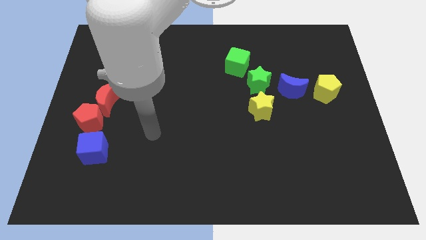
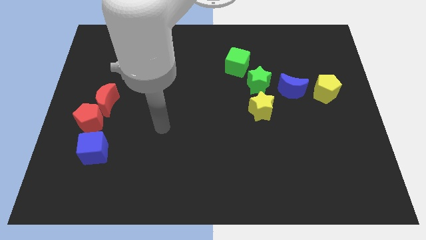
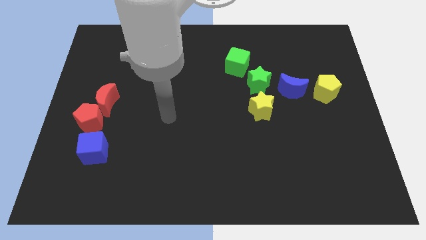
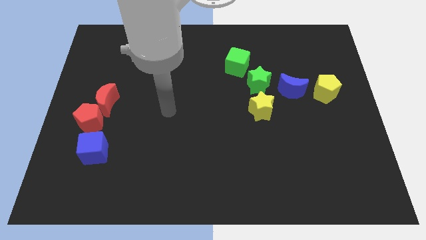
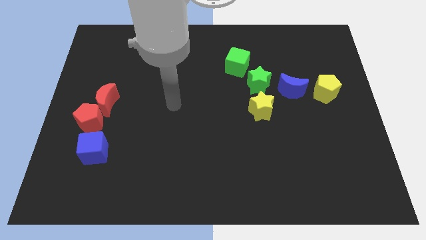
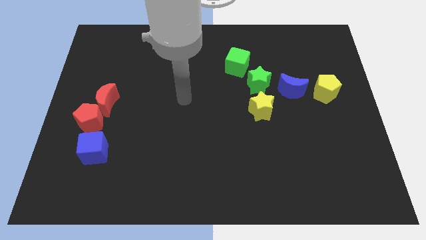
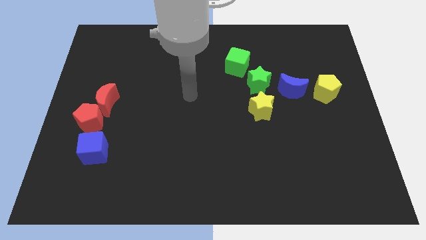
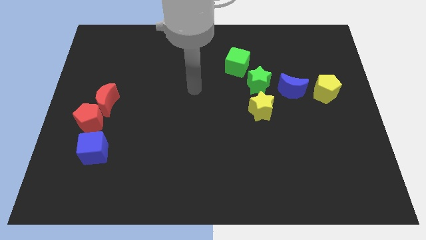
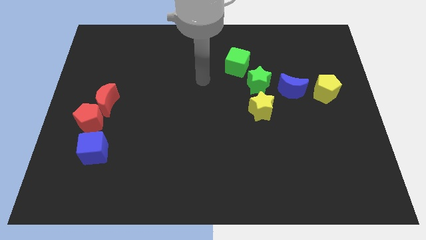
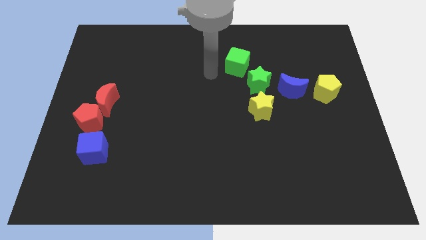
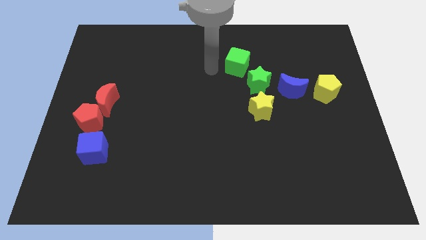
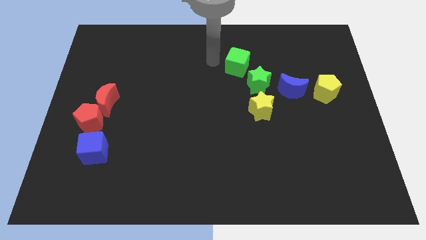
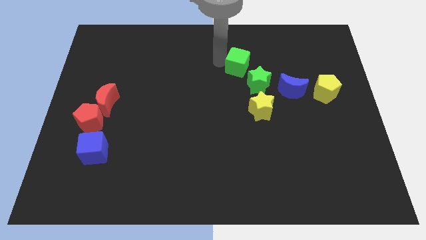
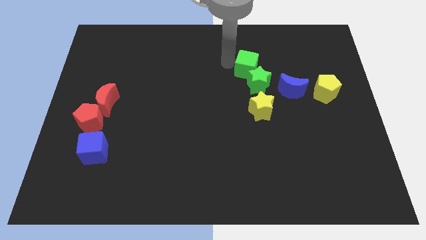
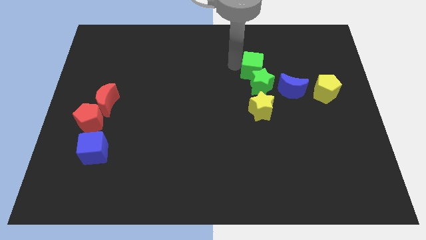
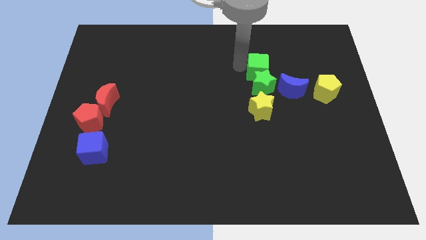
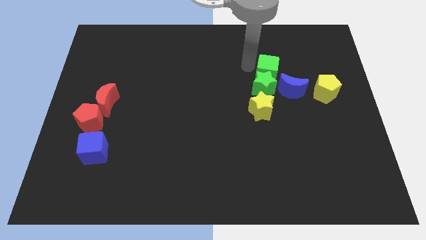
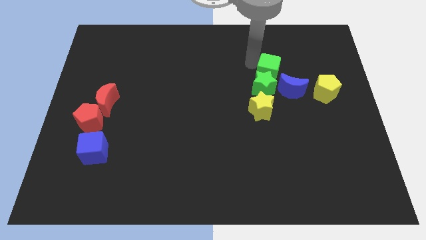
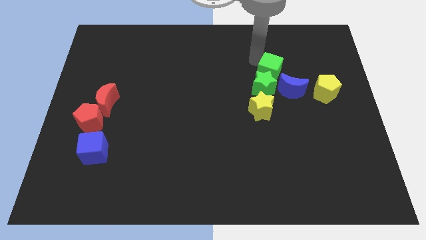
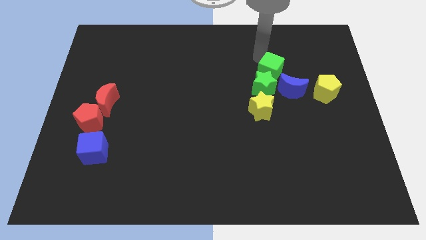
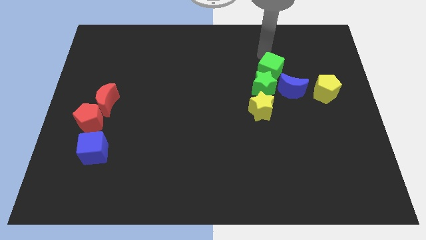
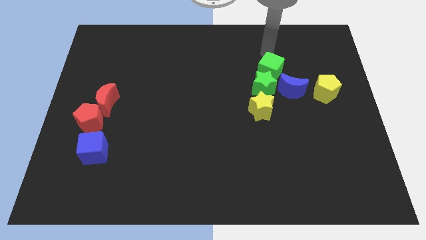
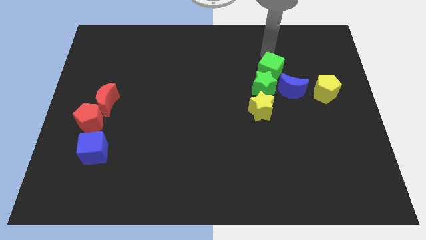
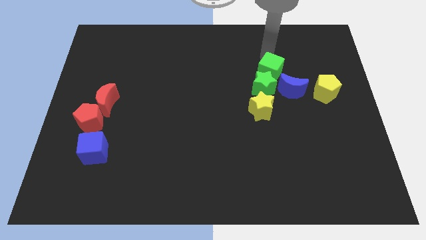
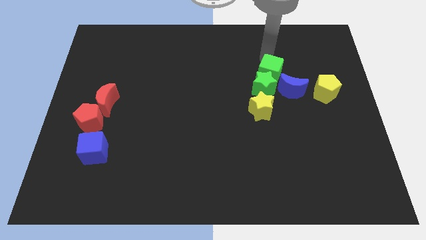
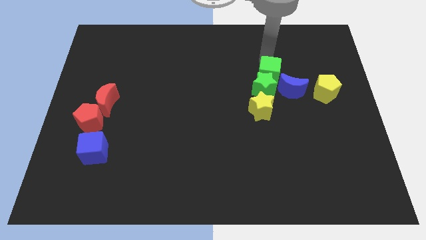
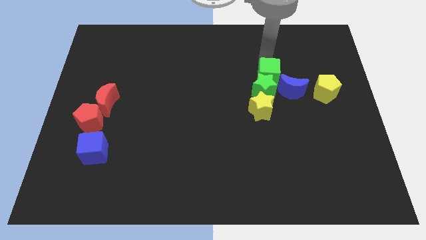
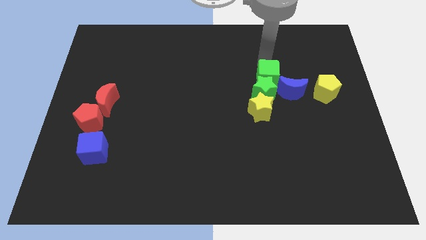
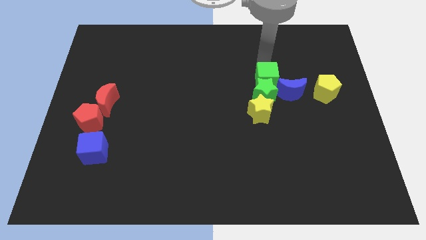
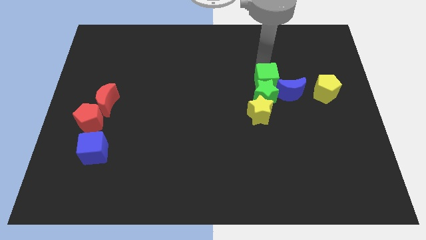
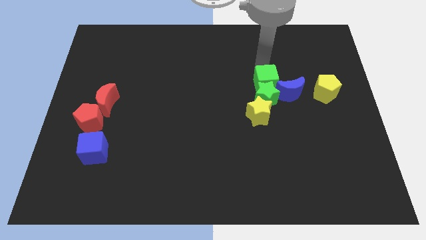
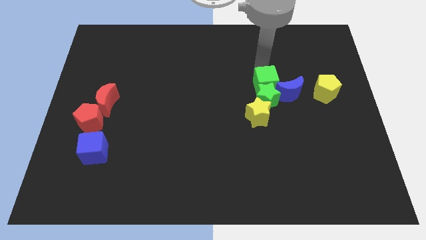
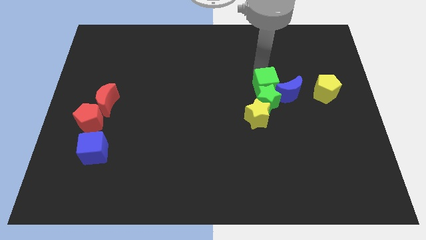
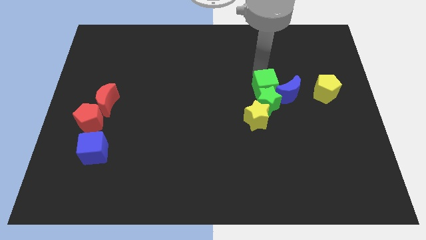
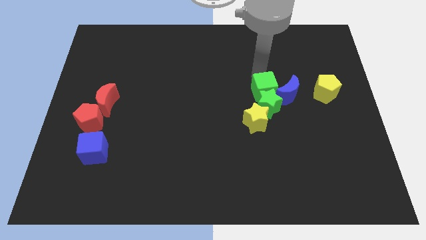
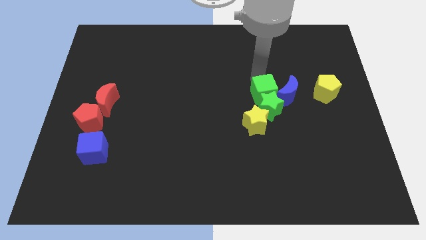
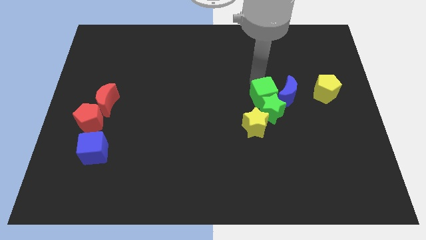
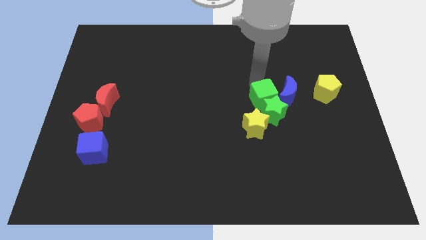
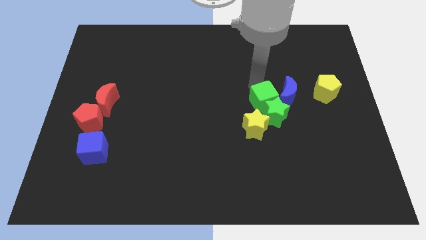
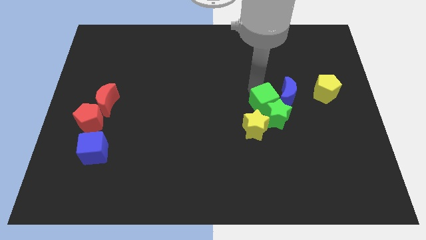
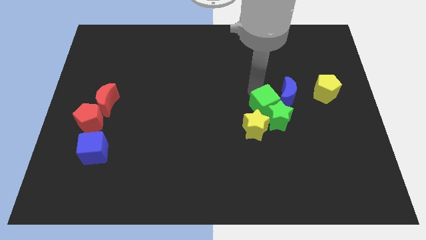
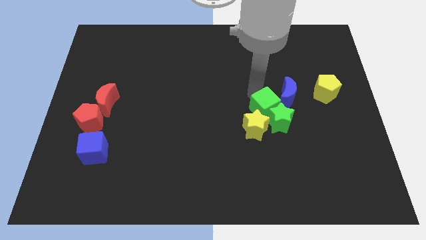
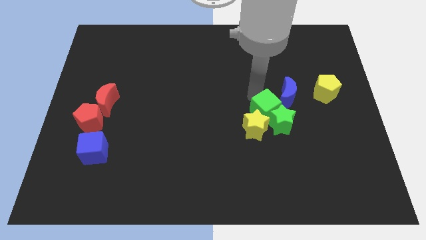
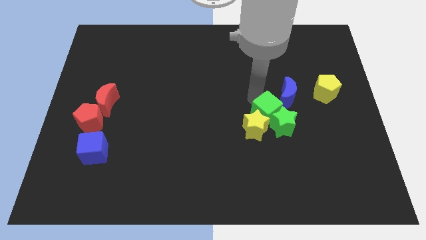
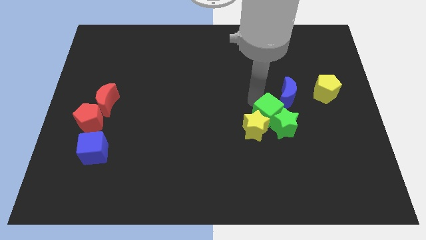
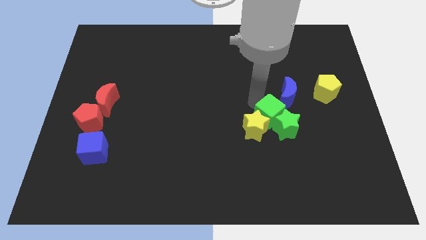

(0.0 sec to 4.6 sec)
slide the green cube to the bottom of the blue moon

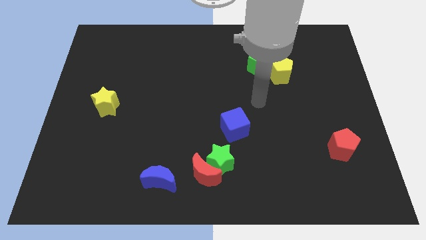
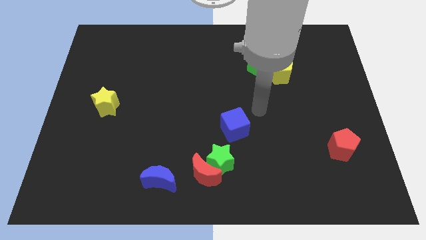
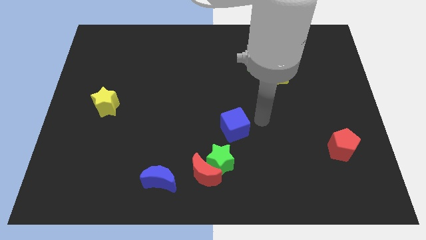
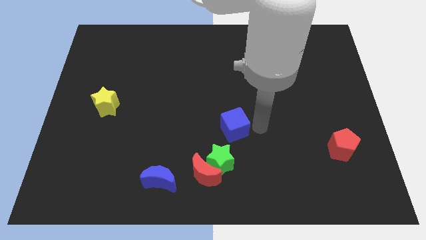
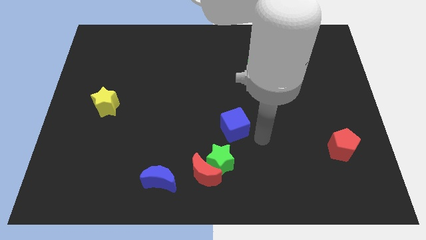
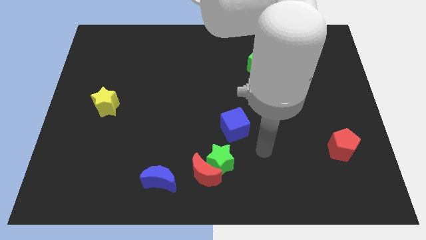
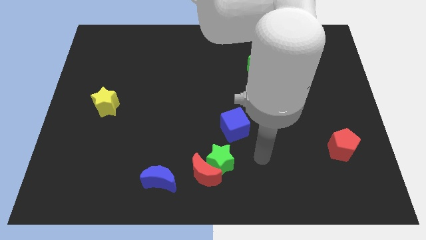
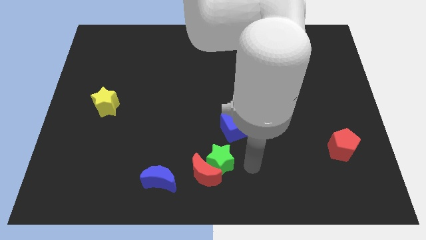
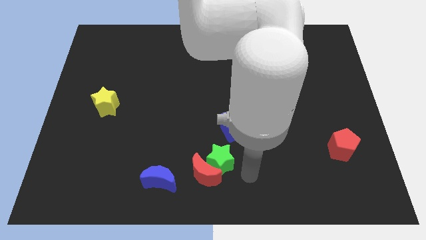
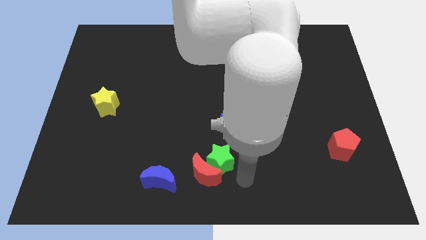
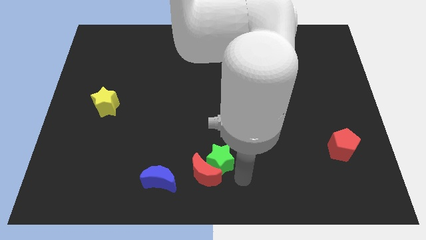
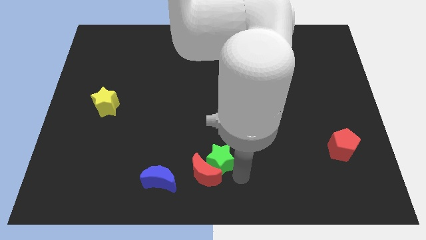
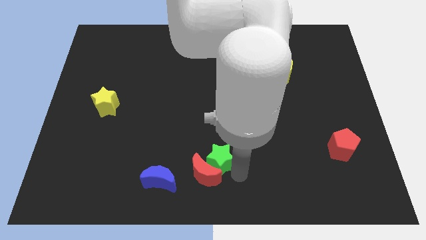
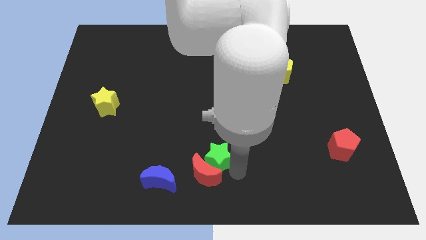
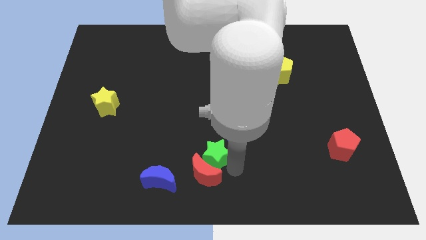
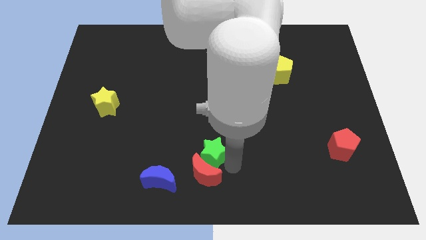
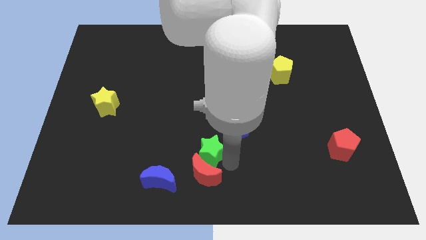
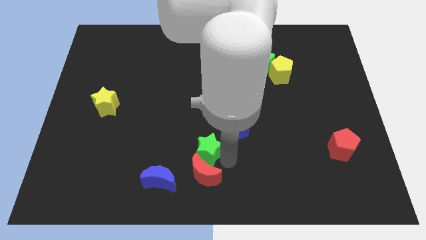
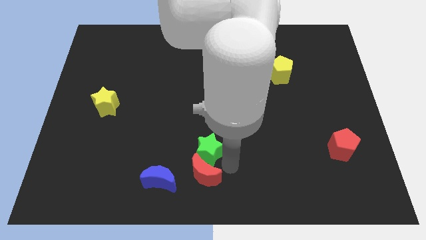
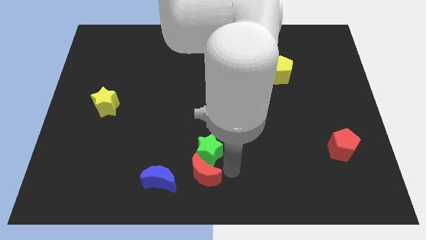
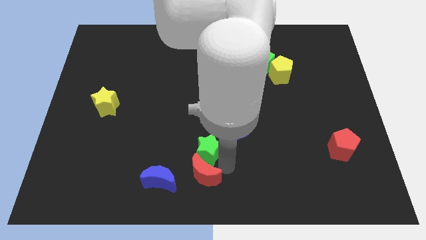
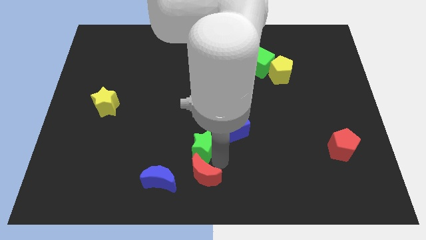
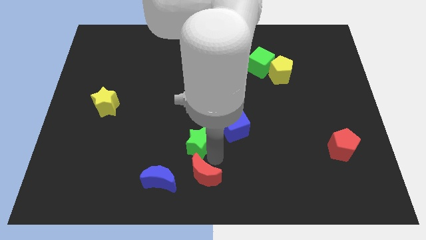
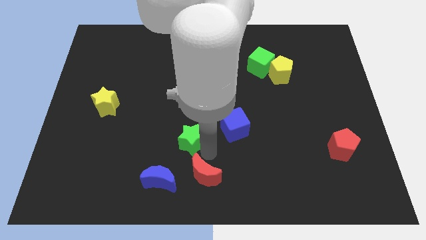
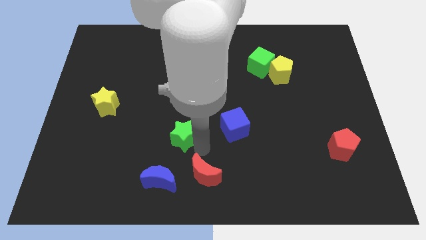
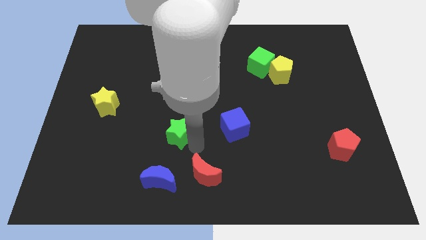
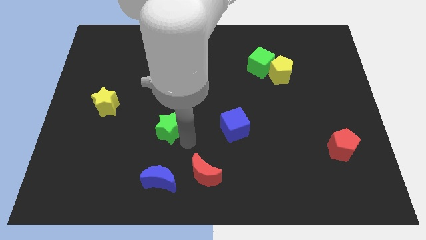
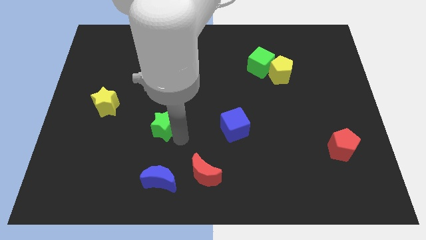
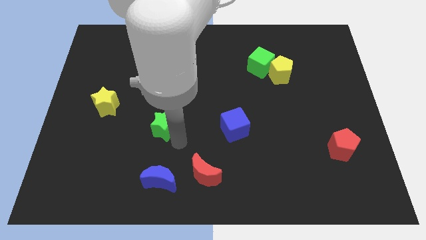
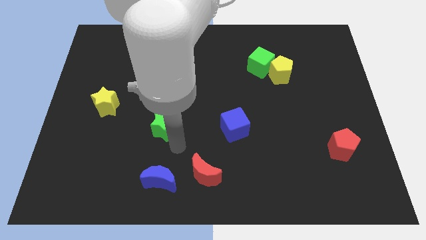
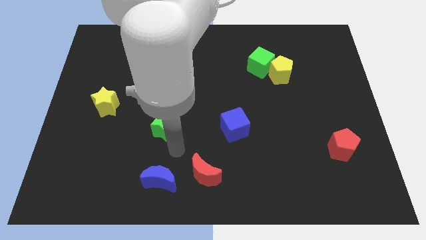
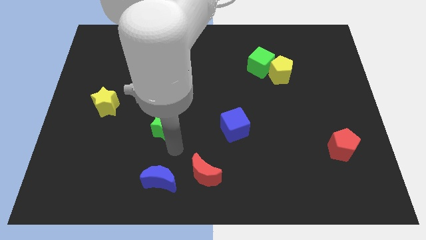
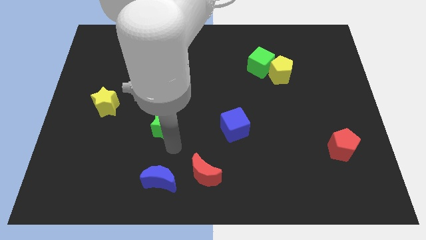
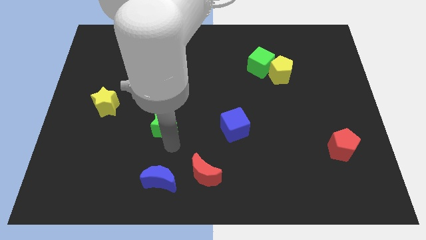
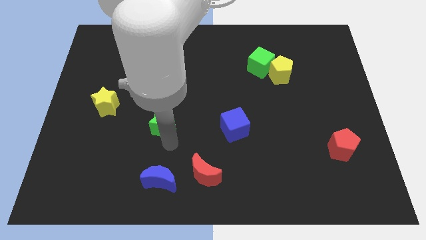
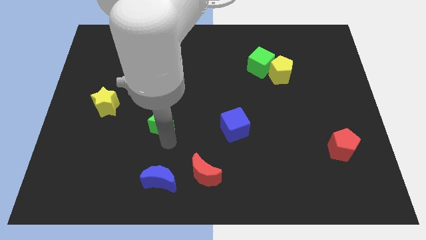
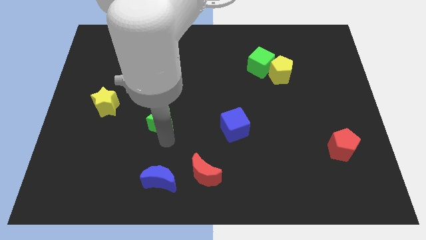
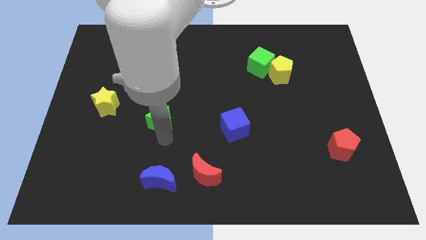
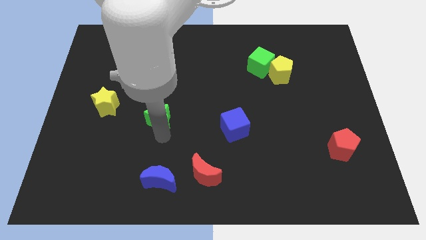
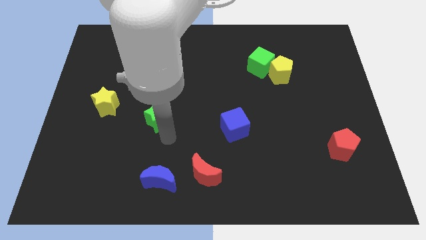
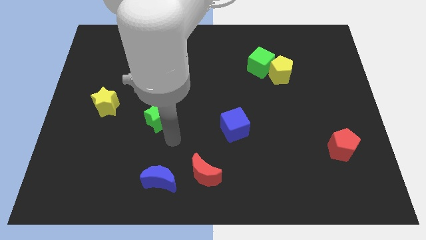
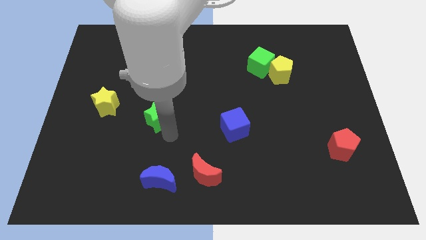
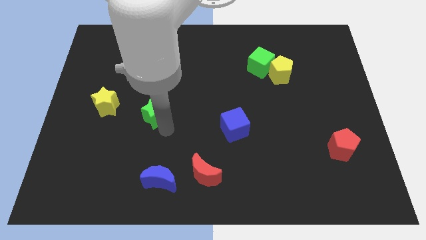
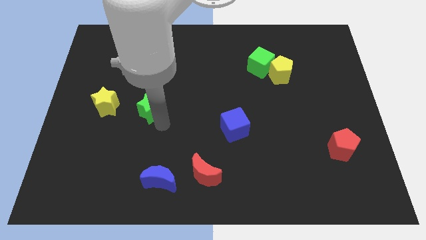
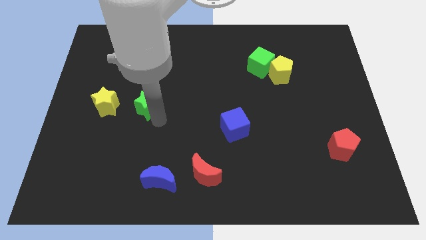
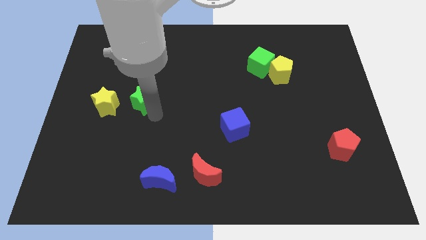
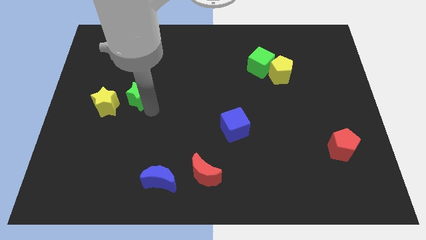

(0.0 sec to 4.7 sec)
slide the green star to the top right of the yellow star
